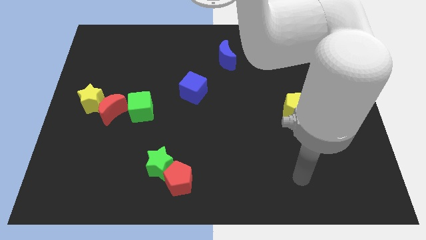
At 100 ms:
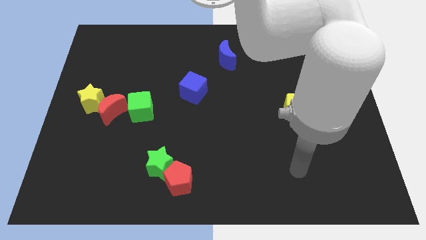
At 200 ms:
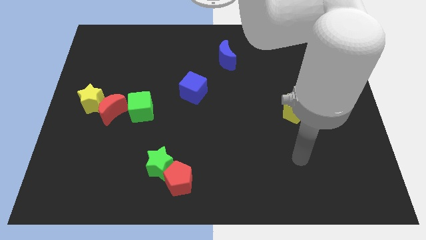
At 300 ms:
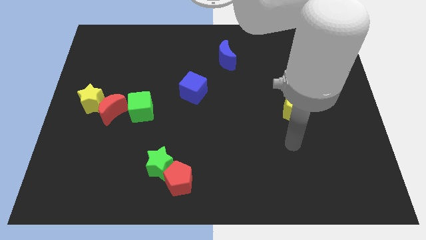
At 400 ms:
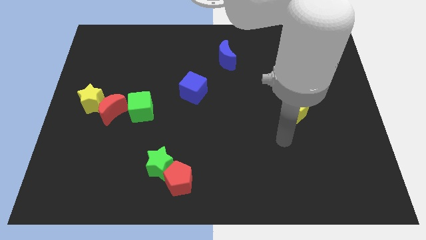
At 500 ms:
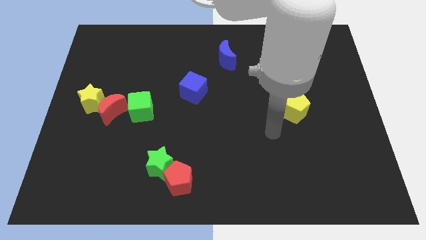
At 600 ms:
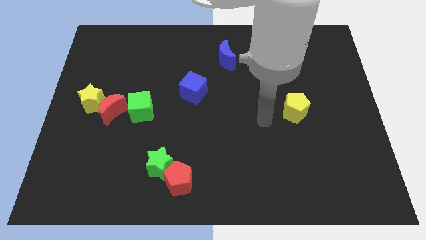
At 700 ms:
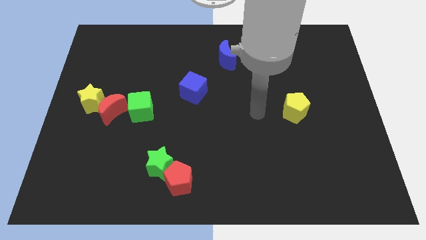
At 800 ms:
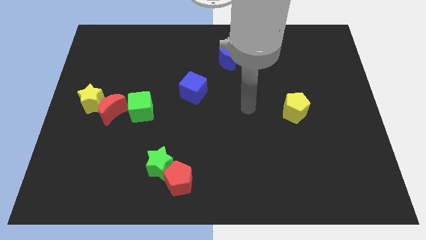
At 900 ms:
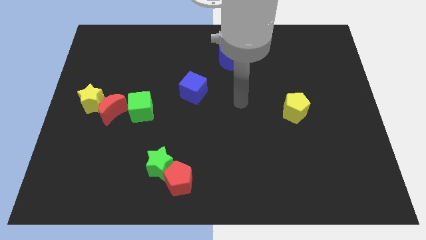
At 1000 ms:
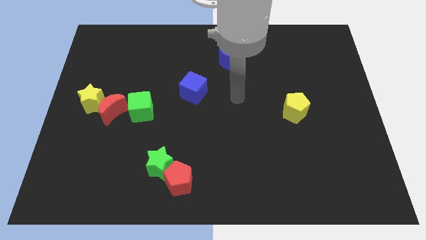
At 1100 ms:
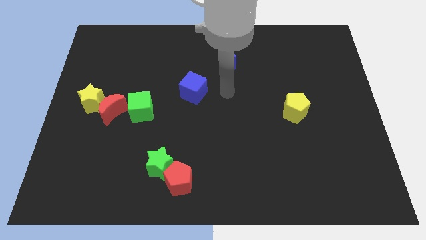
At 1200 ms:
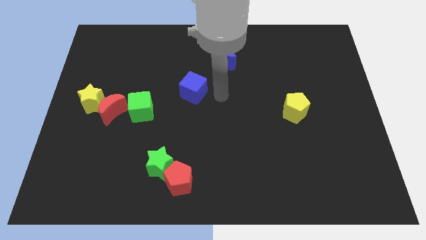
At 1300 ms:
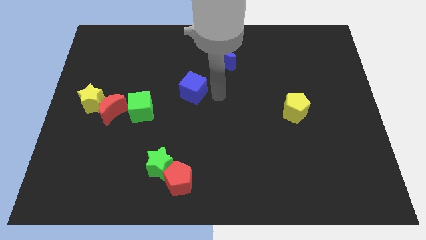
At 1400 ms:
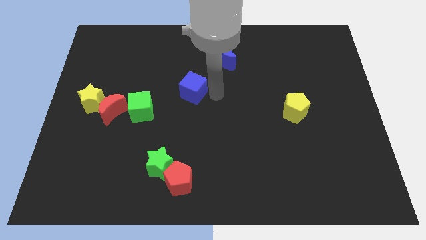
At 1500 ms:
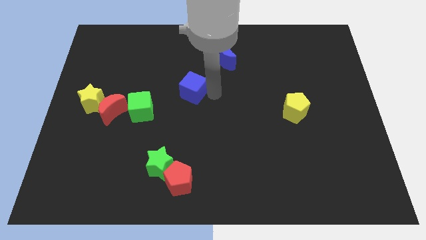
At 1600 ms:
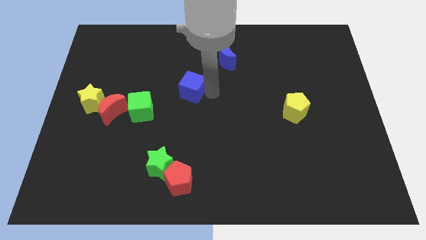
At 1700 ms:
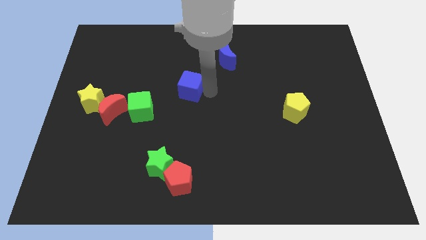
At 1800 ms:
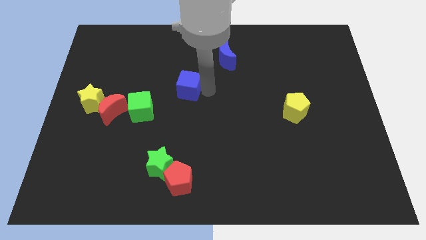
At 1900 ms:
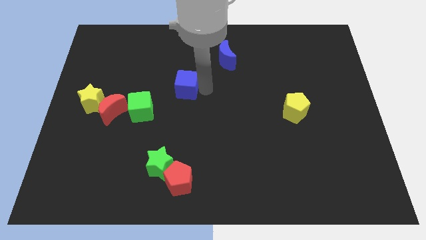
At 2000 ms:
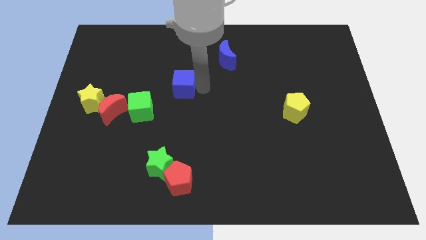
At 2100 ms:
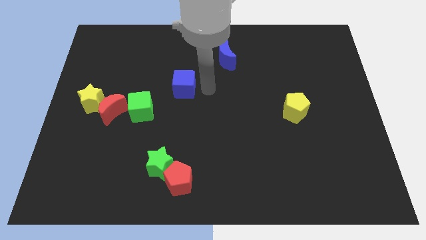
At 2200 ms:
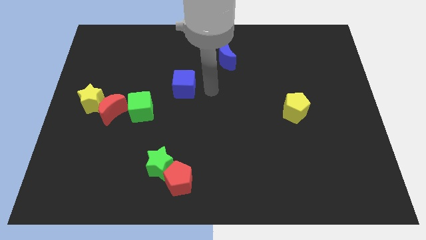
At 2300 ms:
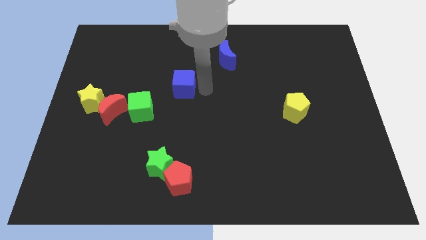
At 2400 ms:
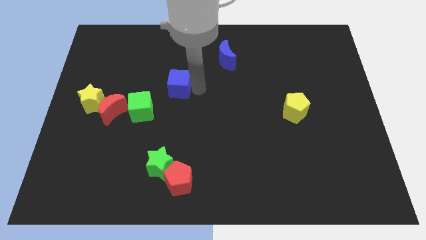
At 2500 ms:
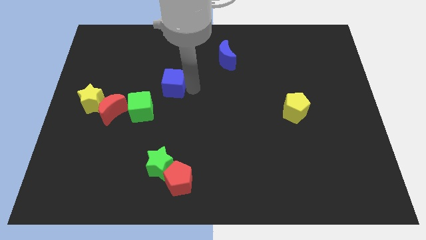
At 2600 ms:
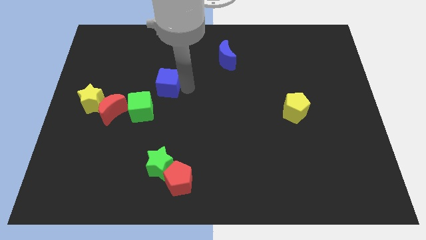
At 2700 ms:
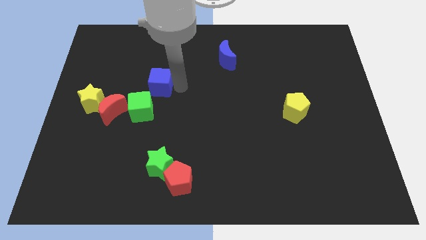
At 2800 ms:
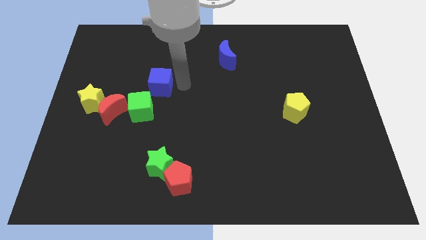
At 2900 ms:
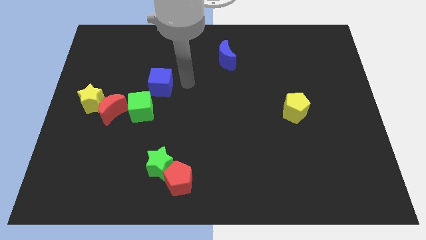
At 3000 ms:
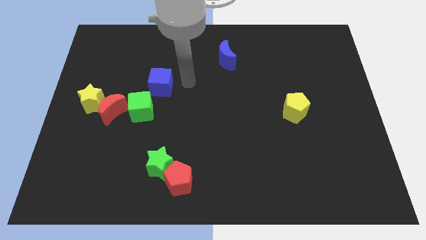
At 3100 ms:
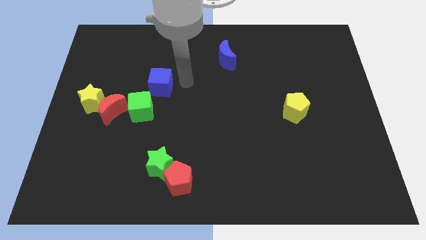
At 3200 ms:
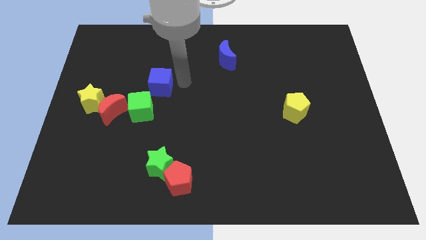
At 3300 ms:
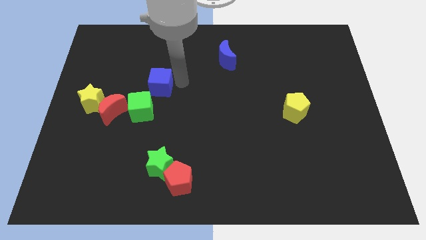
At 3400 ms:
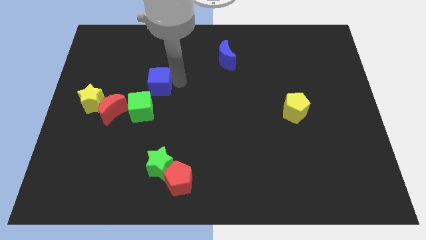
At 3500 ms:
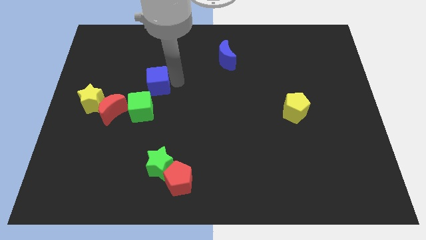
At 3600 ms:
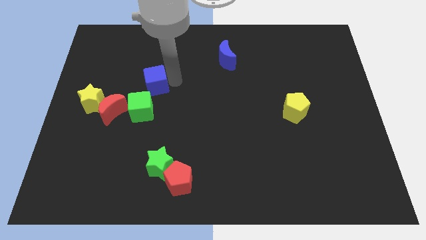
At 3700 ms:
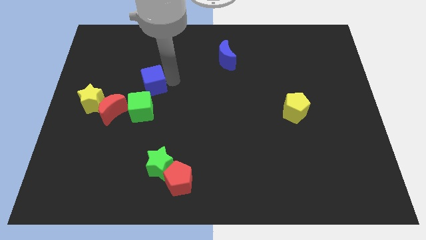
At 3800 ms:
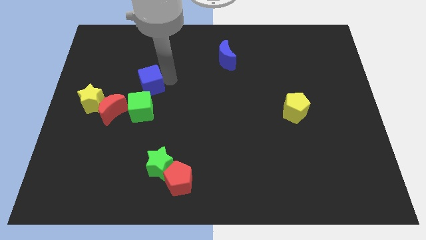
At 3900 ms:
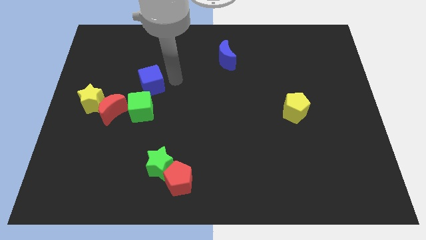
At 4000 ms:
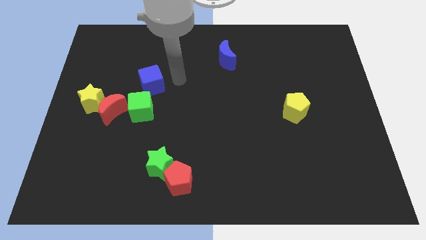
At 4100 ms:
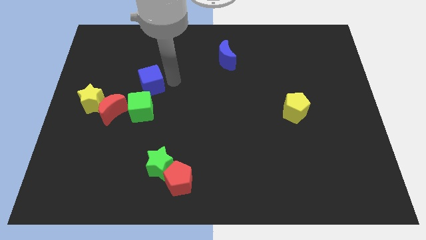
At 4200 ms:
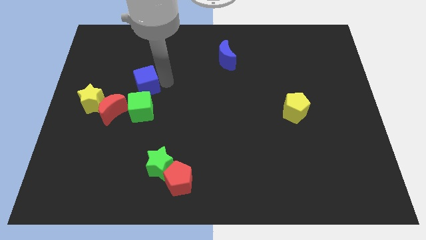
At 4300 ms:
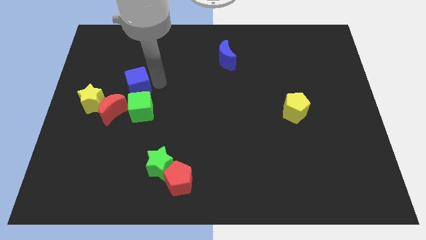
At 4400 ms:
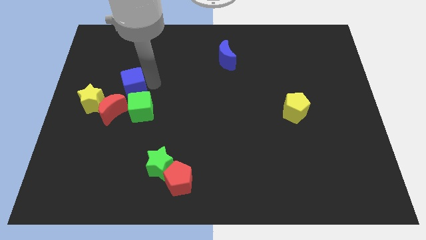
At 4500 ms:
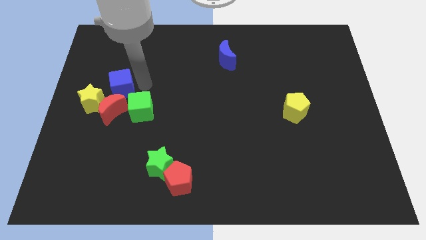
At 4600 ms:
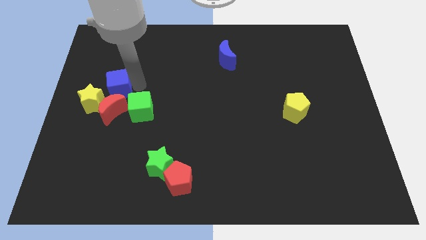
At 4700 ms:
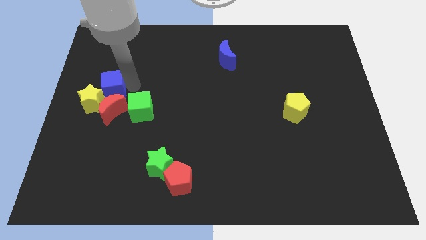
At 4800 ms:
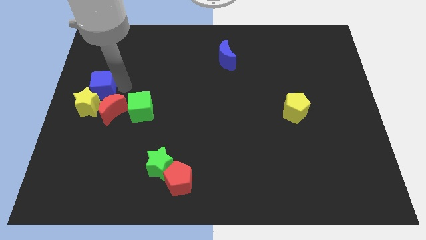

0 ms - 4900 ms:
put the blue cube to the center left
